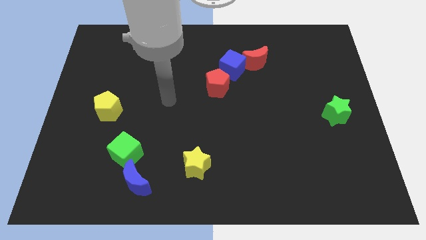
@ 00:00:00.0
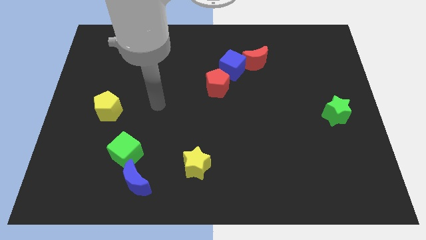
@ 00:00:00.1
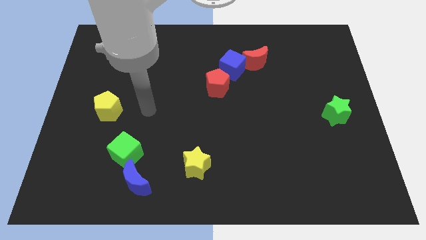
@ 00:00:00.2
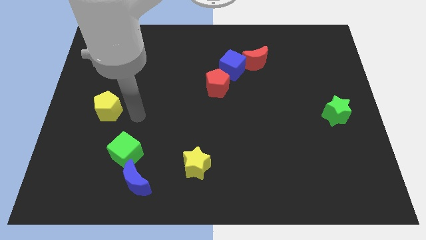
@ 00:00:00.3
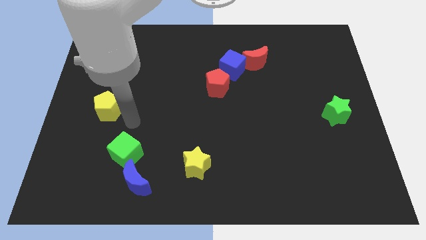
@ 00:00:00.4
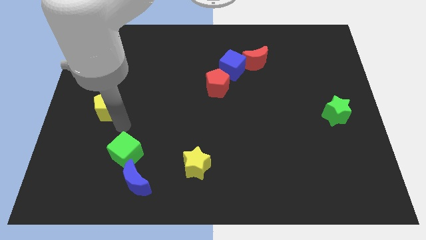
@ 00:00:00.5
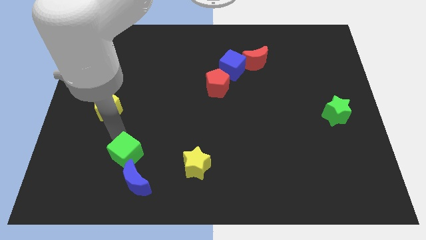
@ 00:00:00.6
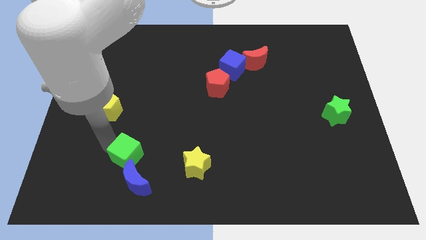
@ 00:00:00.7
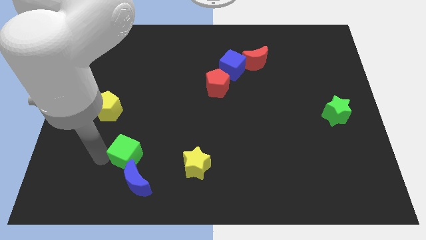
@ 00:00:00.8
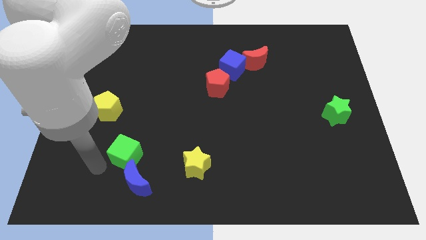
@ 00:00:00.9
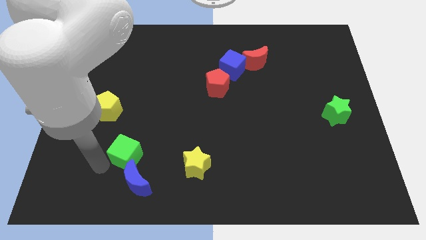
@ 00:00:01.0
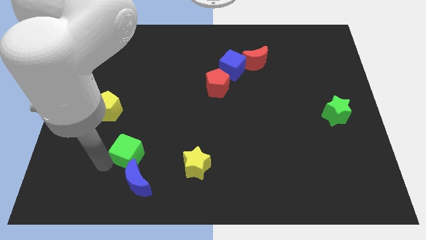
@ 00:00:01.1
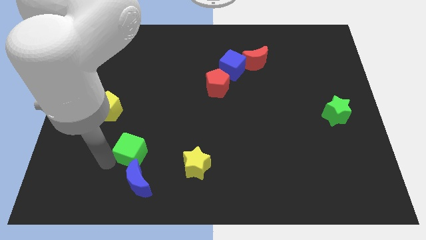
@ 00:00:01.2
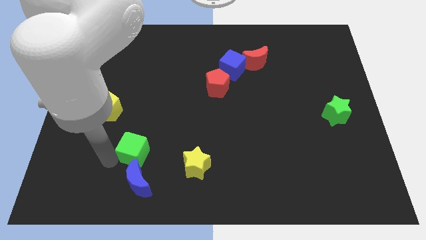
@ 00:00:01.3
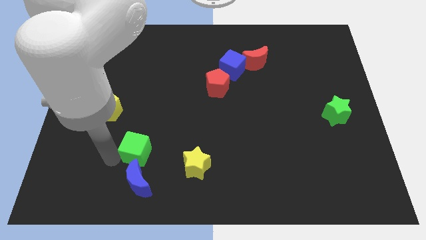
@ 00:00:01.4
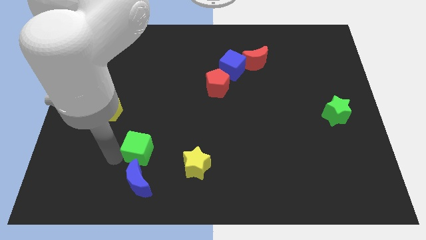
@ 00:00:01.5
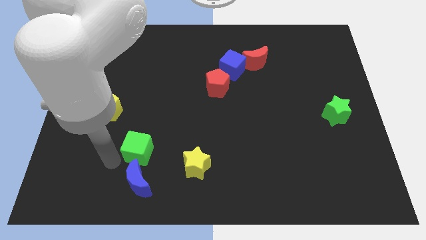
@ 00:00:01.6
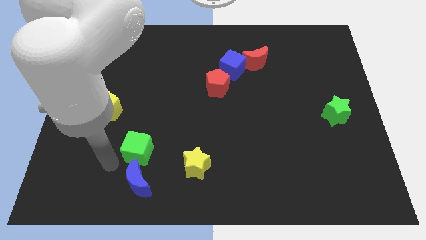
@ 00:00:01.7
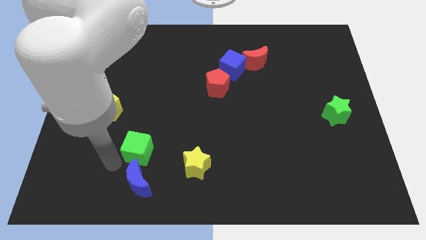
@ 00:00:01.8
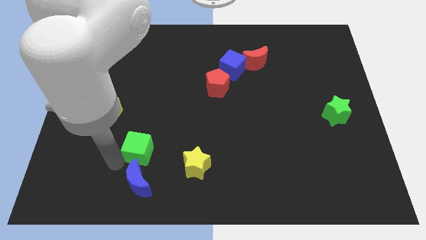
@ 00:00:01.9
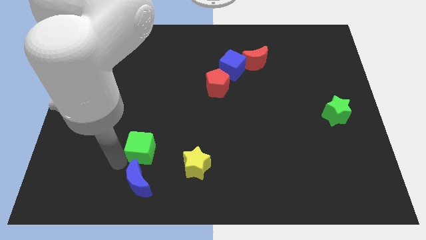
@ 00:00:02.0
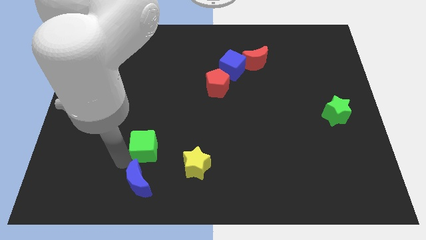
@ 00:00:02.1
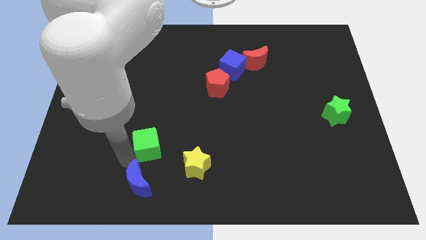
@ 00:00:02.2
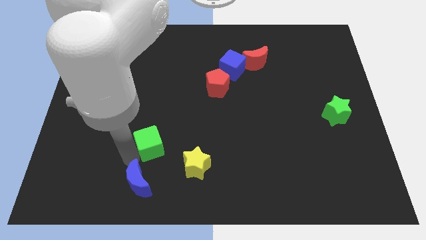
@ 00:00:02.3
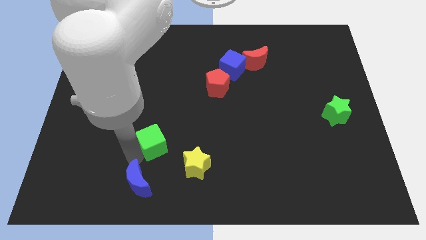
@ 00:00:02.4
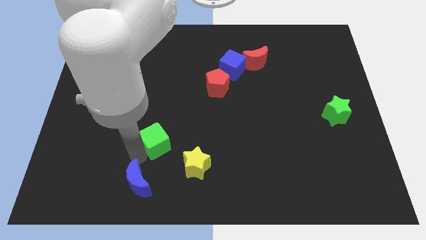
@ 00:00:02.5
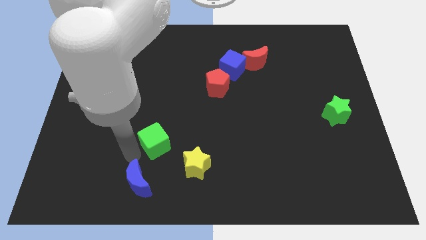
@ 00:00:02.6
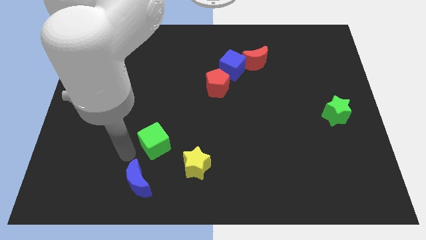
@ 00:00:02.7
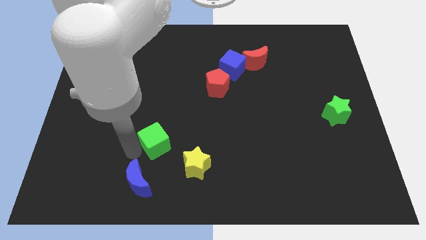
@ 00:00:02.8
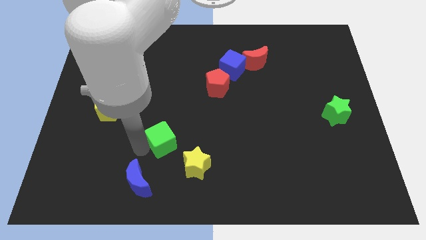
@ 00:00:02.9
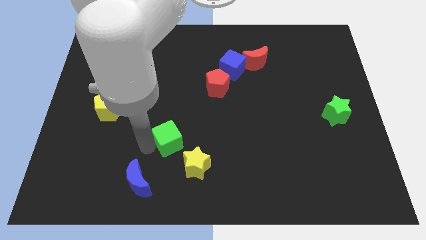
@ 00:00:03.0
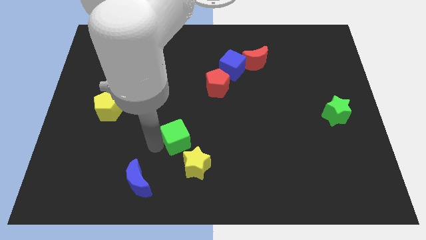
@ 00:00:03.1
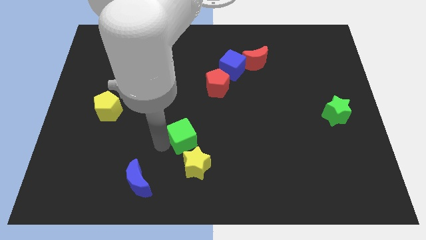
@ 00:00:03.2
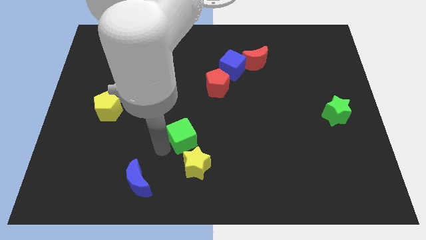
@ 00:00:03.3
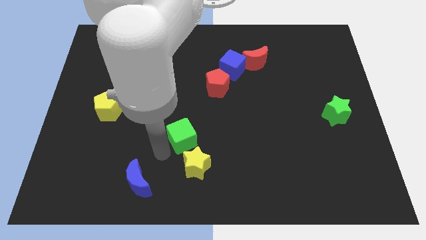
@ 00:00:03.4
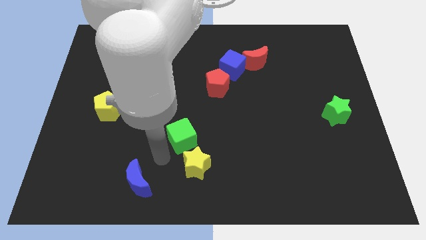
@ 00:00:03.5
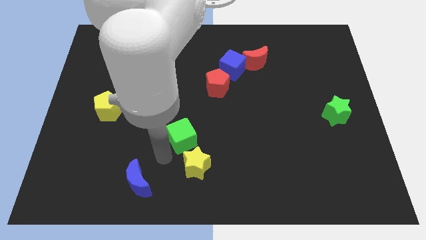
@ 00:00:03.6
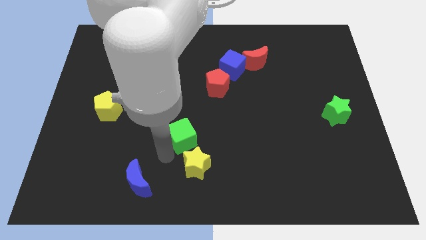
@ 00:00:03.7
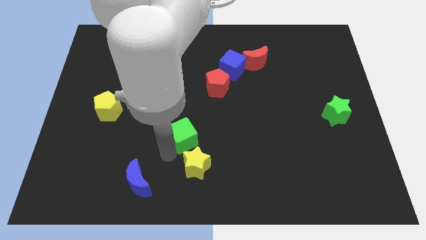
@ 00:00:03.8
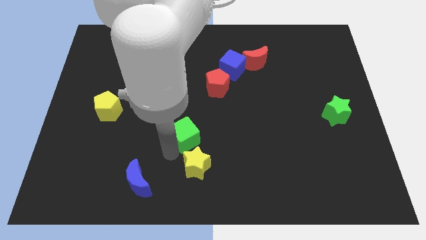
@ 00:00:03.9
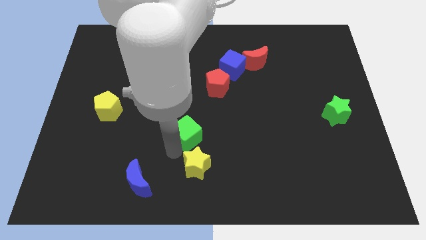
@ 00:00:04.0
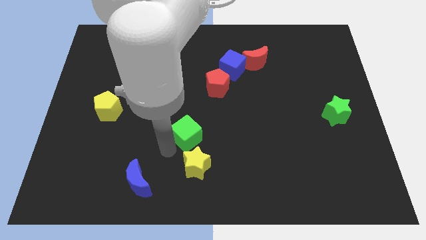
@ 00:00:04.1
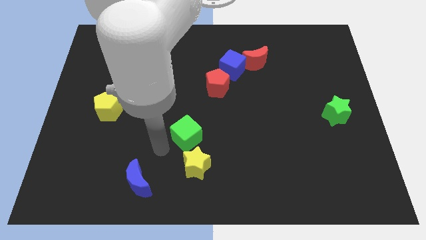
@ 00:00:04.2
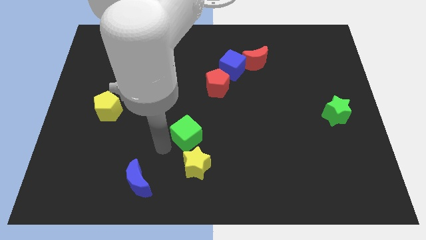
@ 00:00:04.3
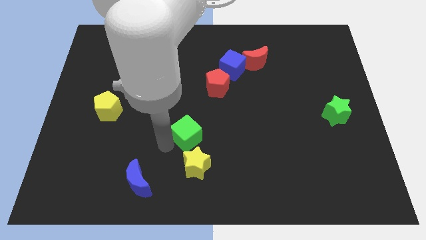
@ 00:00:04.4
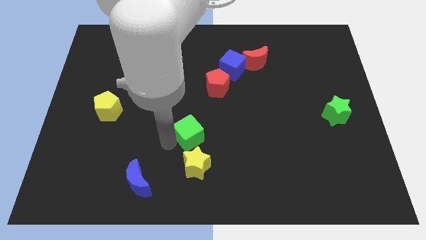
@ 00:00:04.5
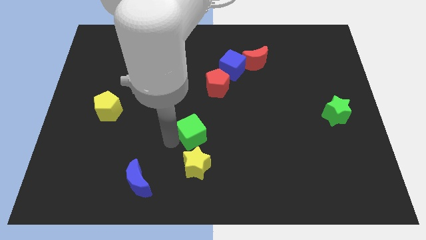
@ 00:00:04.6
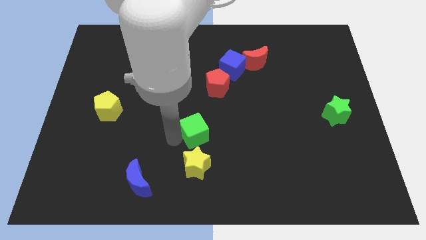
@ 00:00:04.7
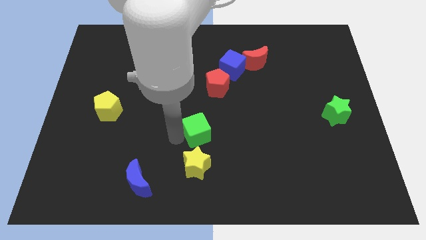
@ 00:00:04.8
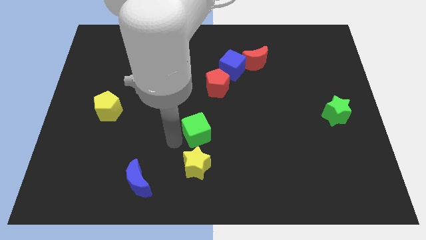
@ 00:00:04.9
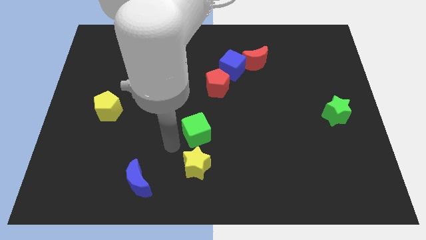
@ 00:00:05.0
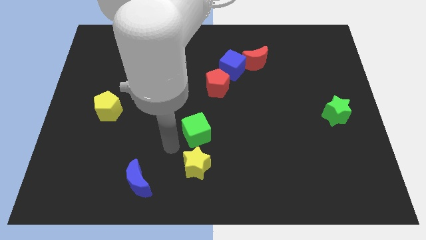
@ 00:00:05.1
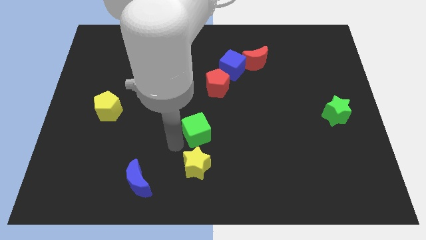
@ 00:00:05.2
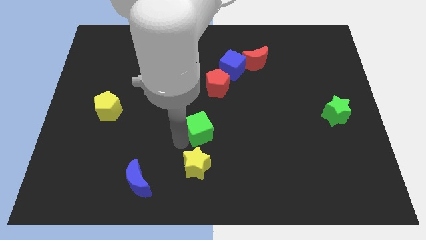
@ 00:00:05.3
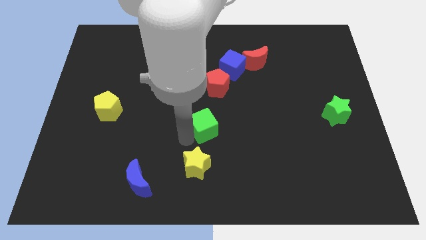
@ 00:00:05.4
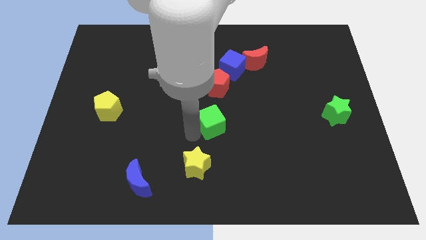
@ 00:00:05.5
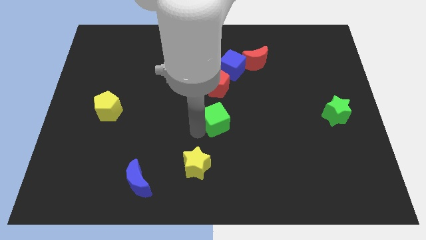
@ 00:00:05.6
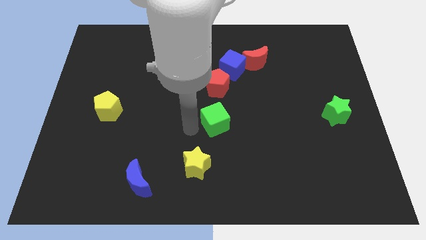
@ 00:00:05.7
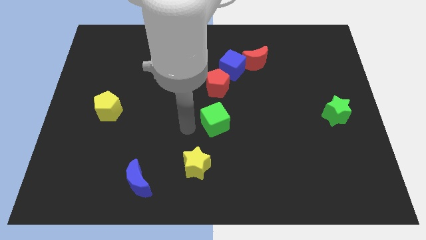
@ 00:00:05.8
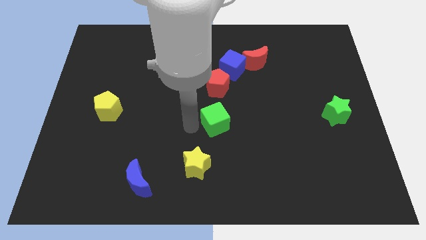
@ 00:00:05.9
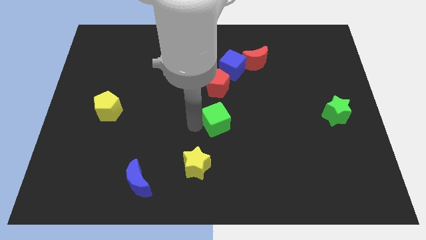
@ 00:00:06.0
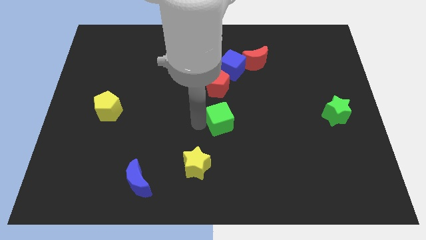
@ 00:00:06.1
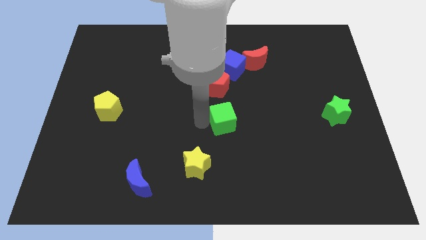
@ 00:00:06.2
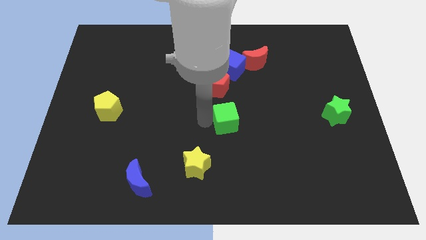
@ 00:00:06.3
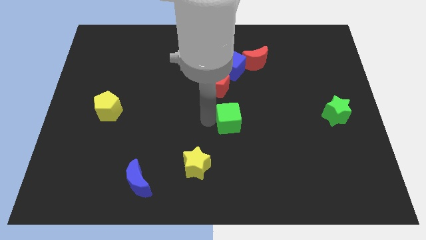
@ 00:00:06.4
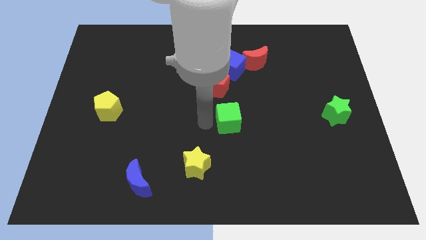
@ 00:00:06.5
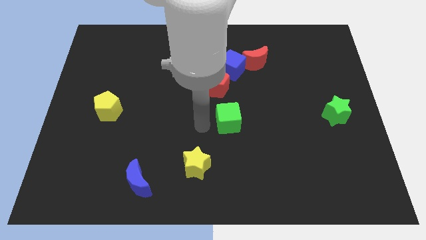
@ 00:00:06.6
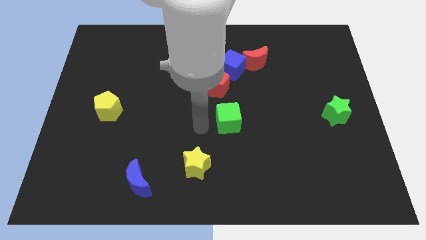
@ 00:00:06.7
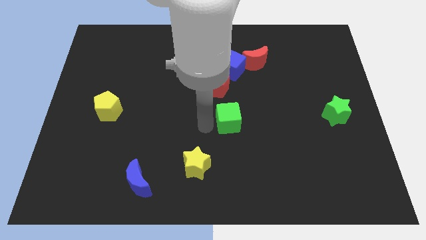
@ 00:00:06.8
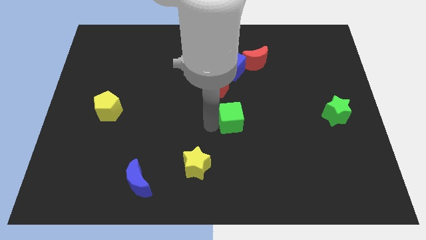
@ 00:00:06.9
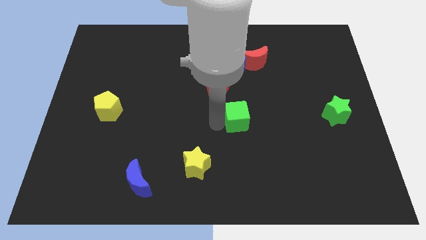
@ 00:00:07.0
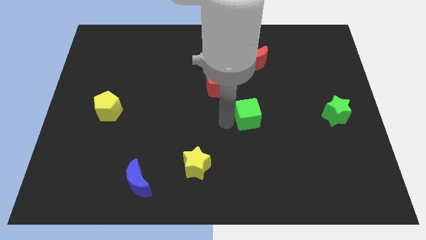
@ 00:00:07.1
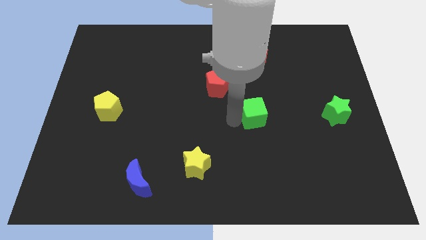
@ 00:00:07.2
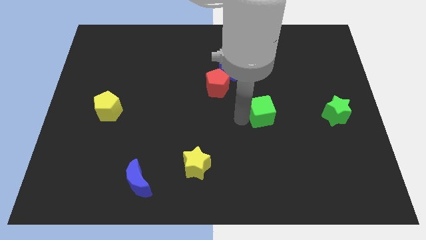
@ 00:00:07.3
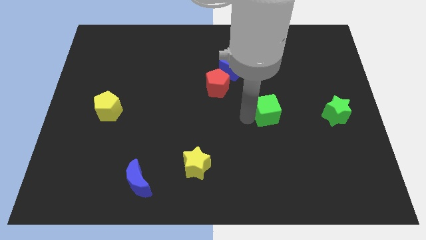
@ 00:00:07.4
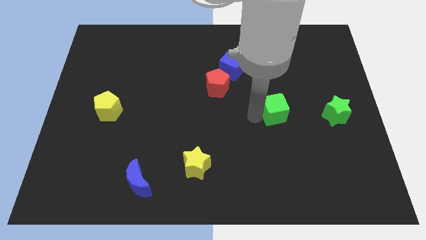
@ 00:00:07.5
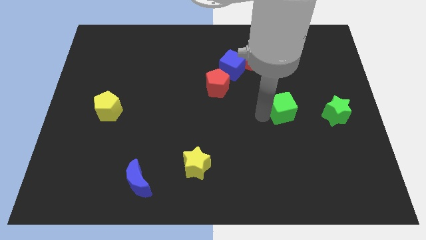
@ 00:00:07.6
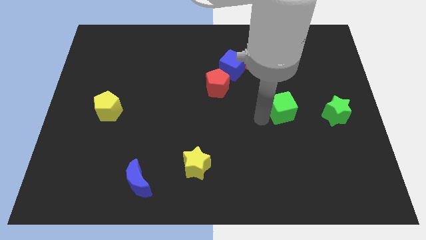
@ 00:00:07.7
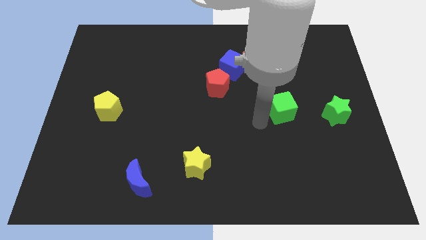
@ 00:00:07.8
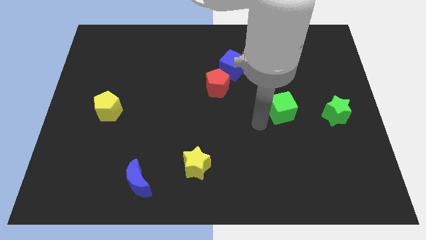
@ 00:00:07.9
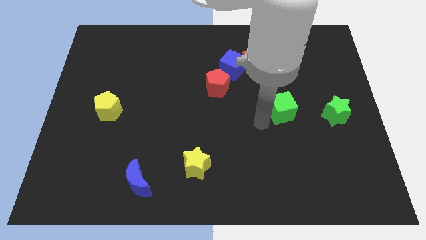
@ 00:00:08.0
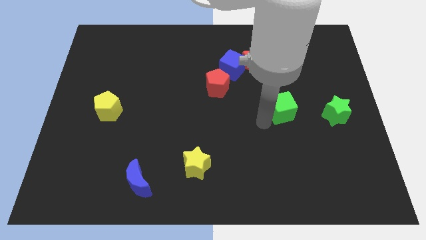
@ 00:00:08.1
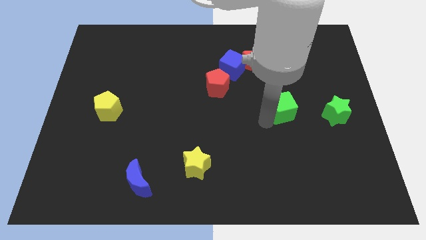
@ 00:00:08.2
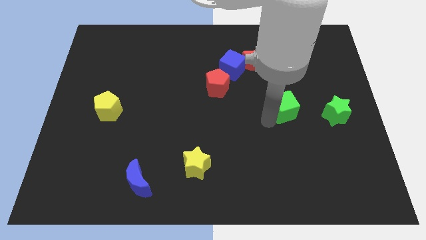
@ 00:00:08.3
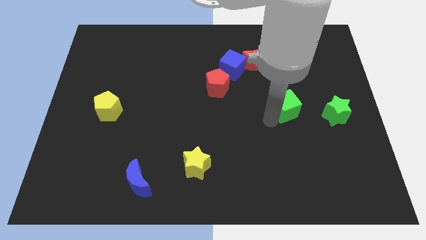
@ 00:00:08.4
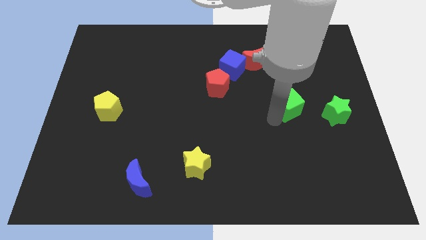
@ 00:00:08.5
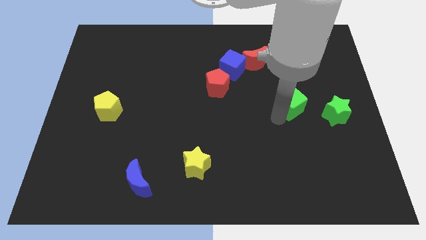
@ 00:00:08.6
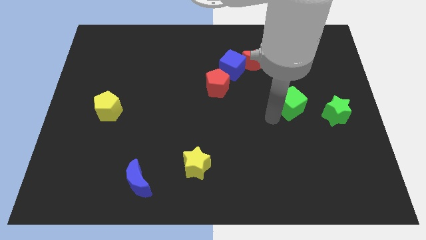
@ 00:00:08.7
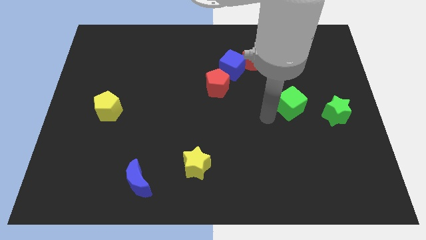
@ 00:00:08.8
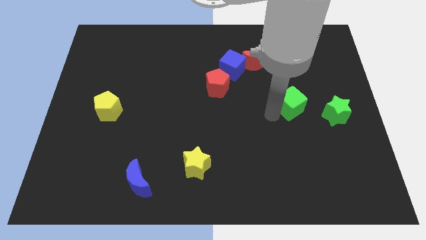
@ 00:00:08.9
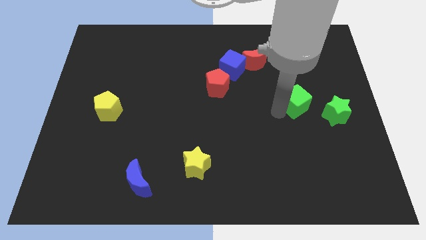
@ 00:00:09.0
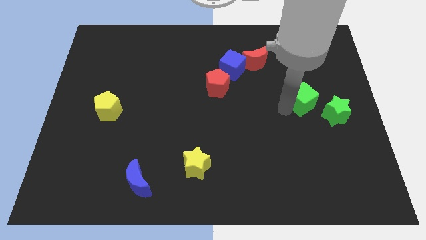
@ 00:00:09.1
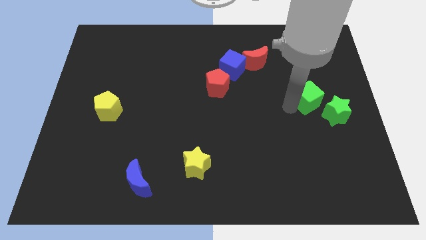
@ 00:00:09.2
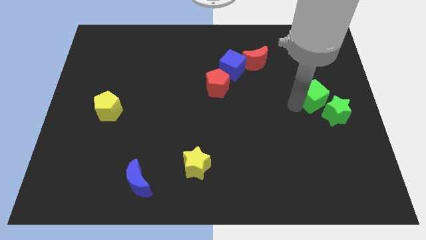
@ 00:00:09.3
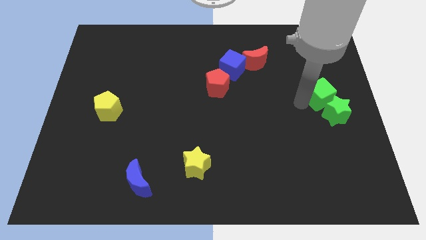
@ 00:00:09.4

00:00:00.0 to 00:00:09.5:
slide the green cube to the center right
